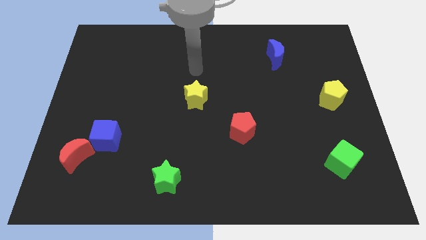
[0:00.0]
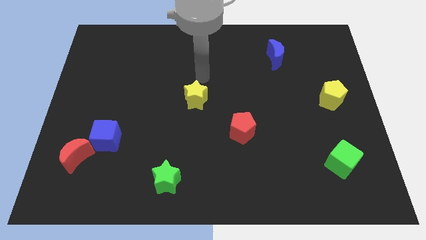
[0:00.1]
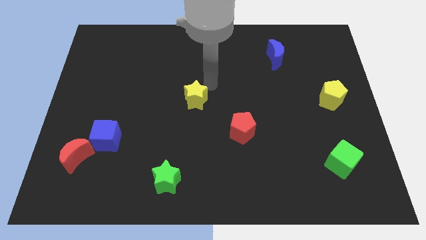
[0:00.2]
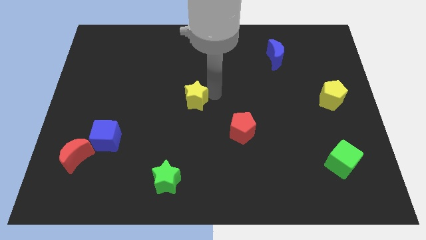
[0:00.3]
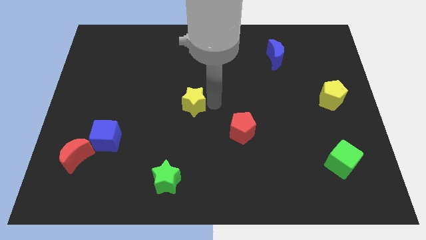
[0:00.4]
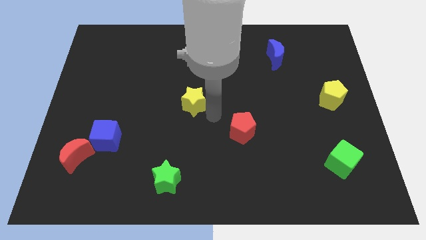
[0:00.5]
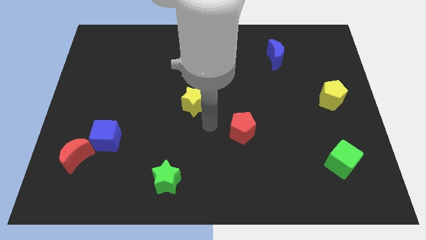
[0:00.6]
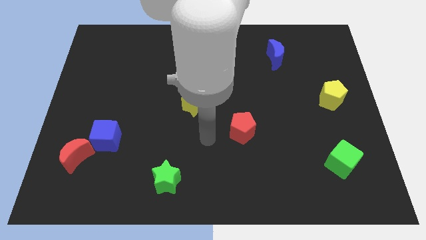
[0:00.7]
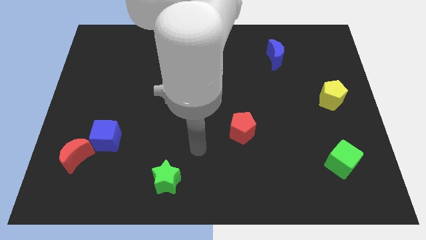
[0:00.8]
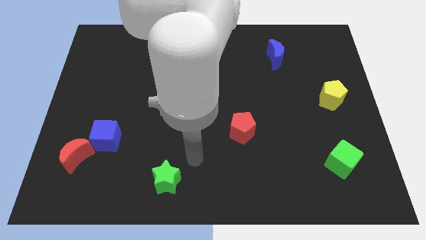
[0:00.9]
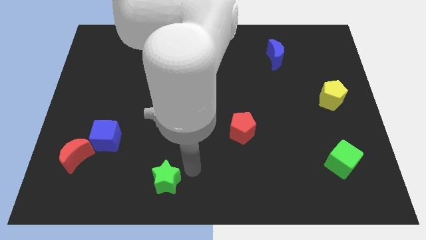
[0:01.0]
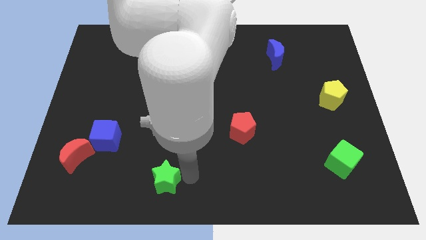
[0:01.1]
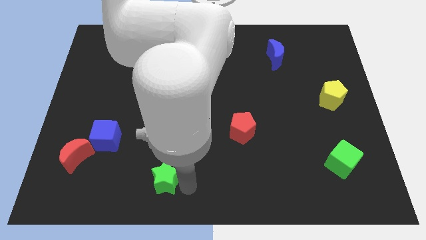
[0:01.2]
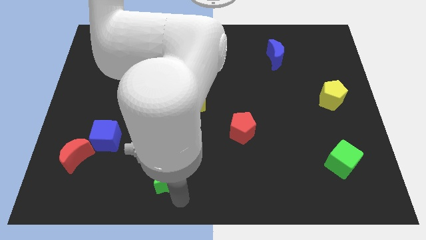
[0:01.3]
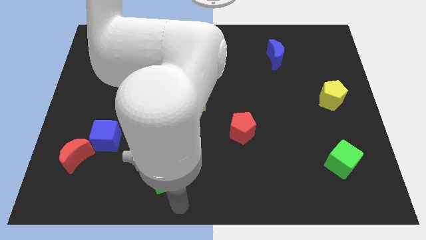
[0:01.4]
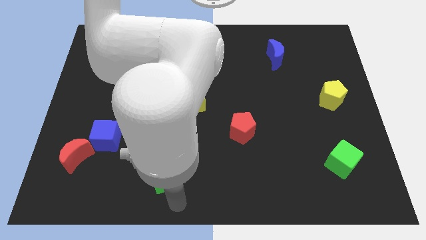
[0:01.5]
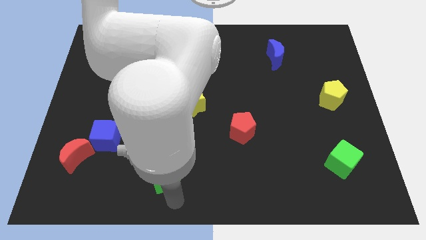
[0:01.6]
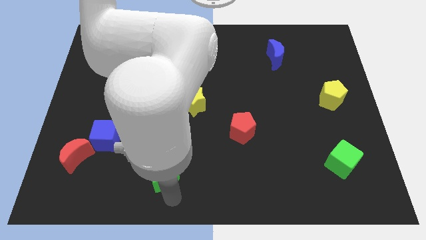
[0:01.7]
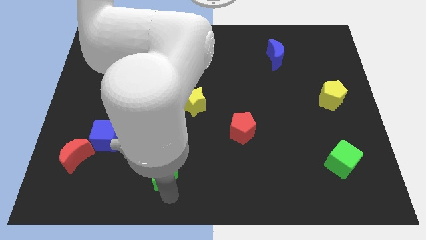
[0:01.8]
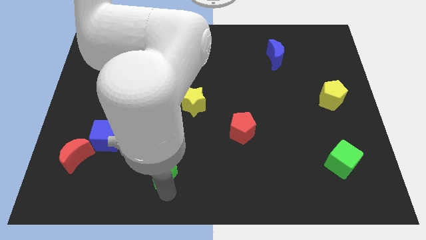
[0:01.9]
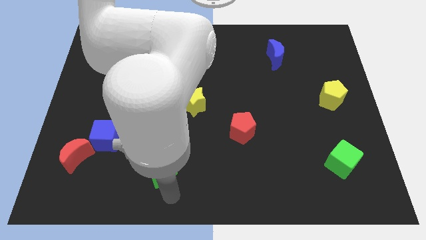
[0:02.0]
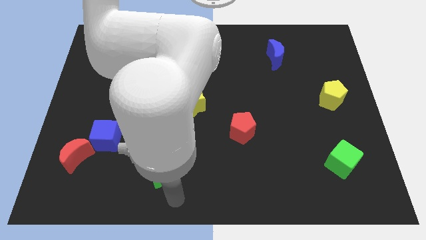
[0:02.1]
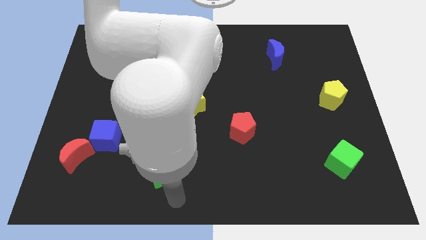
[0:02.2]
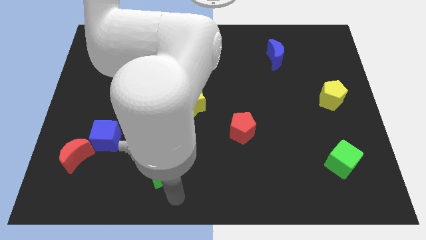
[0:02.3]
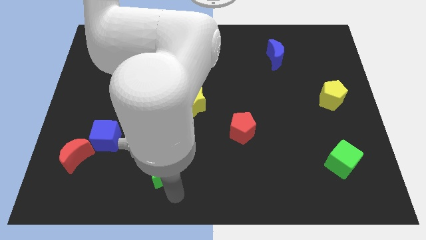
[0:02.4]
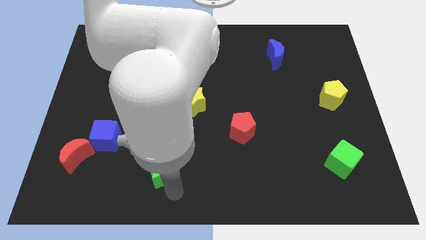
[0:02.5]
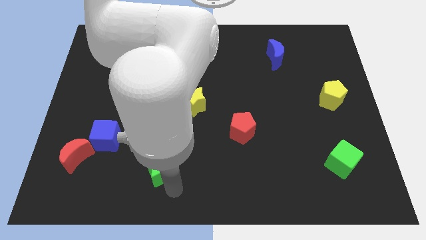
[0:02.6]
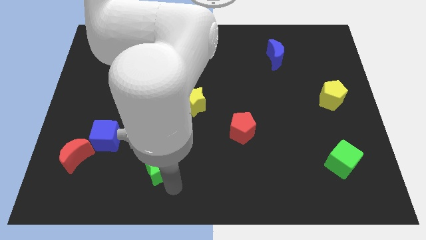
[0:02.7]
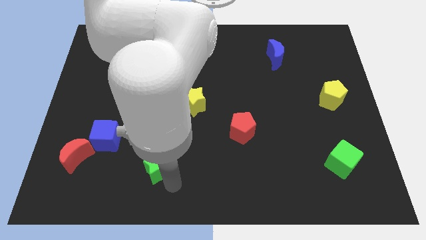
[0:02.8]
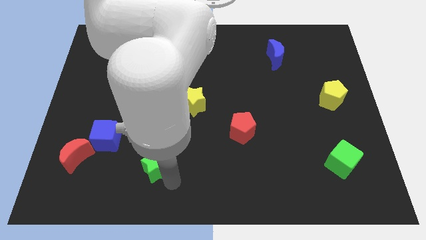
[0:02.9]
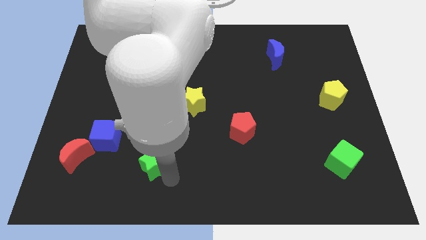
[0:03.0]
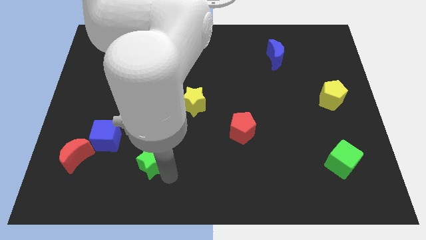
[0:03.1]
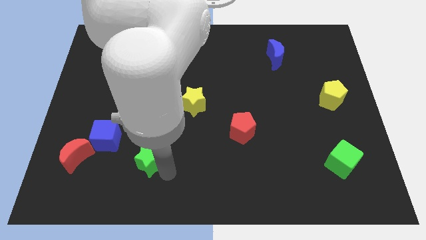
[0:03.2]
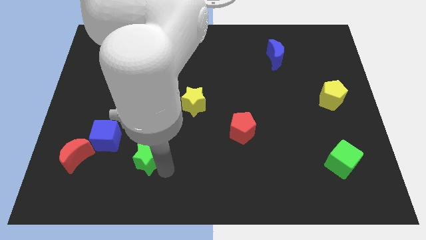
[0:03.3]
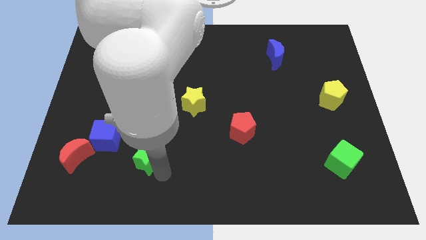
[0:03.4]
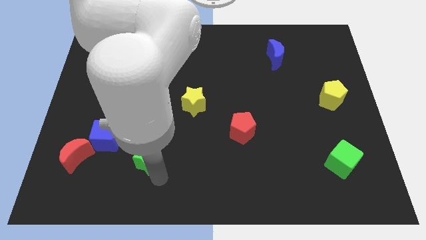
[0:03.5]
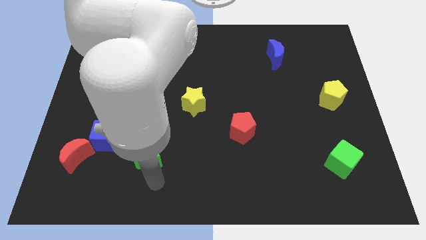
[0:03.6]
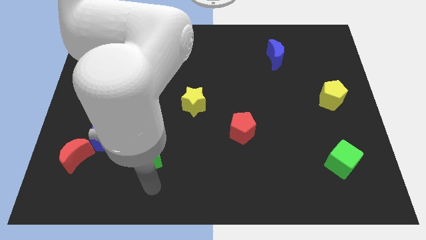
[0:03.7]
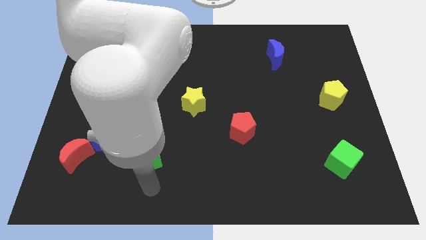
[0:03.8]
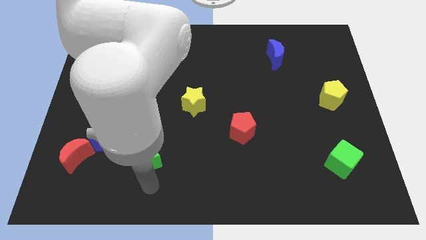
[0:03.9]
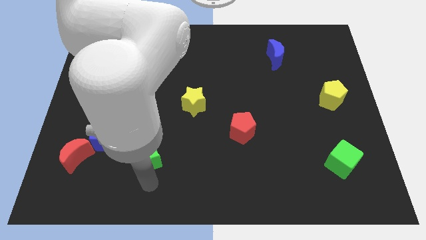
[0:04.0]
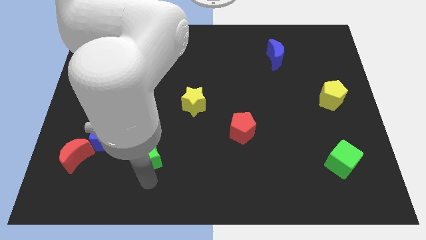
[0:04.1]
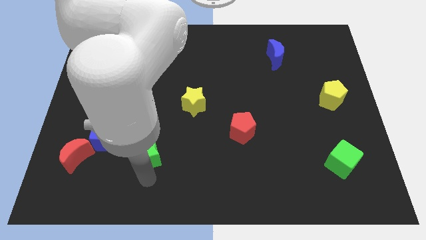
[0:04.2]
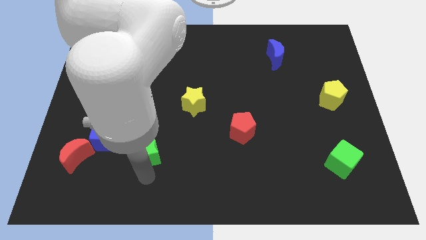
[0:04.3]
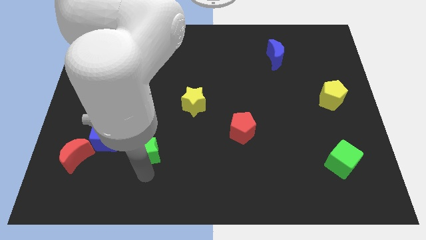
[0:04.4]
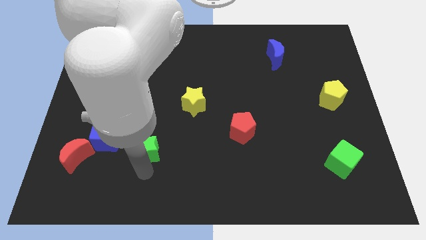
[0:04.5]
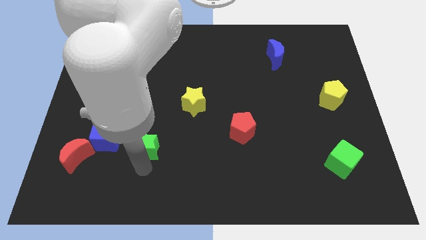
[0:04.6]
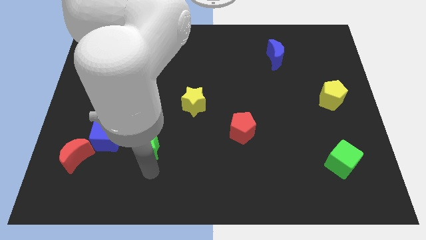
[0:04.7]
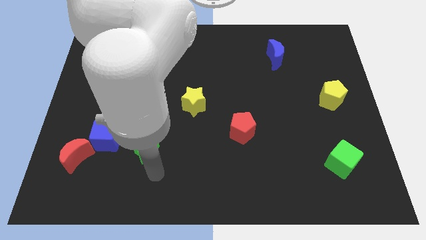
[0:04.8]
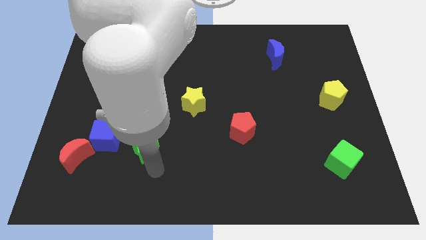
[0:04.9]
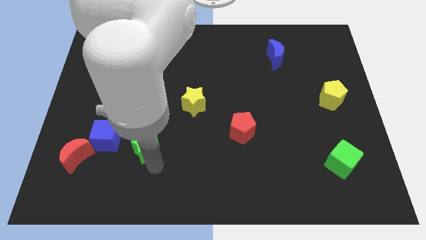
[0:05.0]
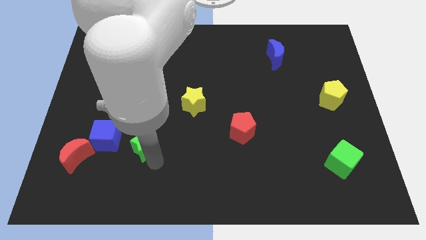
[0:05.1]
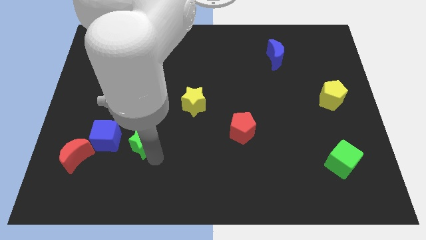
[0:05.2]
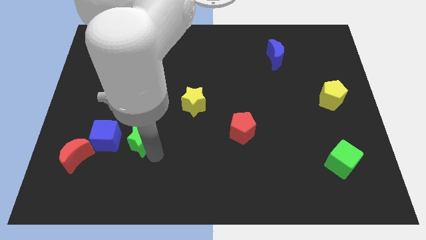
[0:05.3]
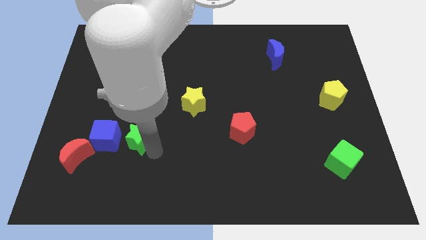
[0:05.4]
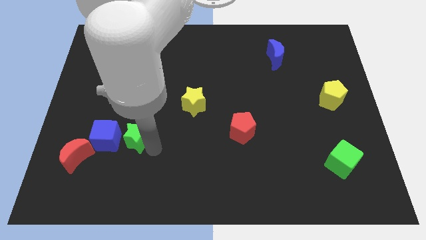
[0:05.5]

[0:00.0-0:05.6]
slide the green star diagonally up and to the right of the blue cube

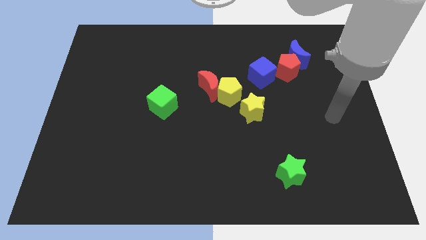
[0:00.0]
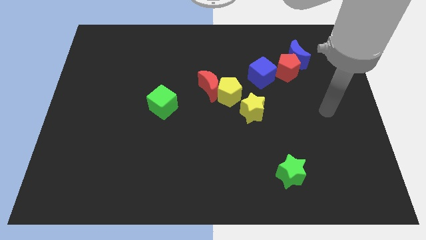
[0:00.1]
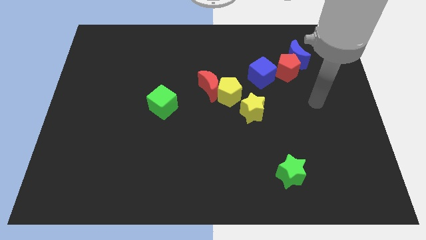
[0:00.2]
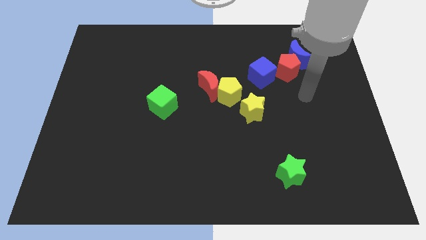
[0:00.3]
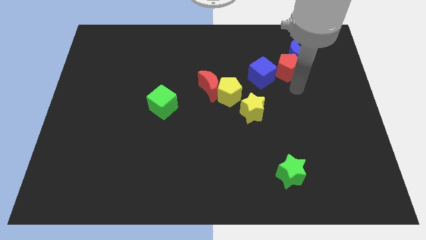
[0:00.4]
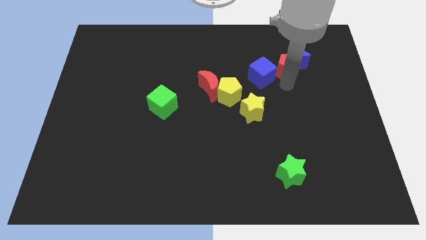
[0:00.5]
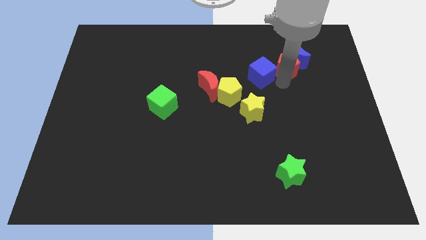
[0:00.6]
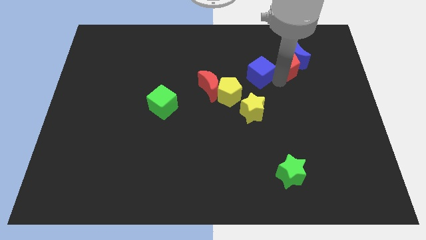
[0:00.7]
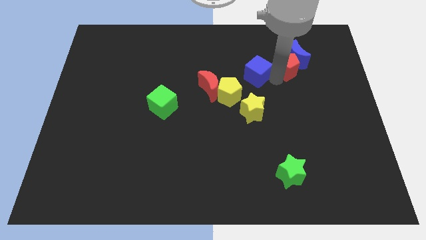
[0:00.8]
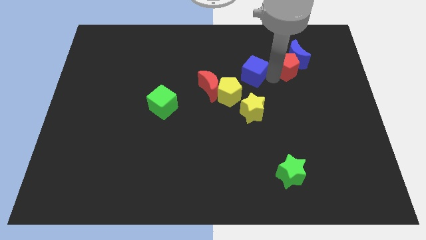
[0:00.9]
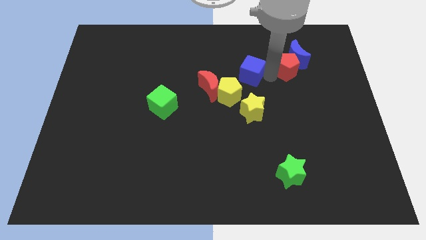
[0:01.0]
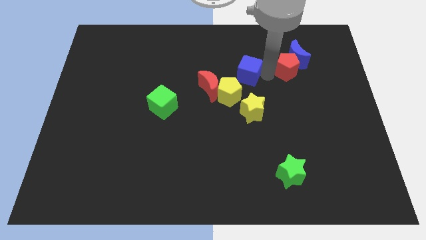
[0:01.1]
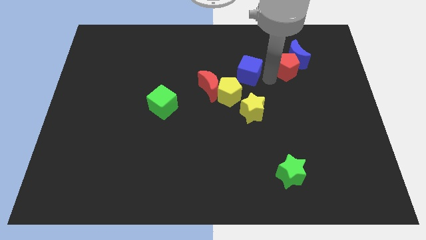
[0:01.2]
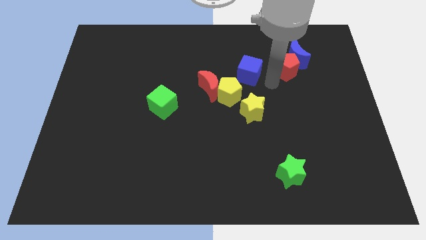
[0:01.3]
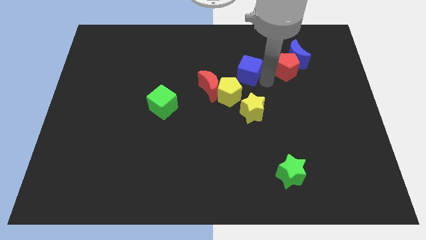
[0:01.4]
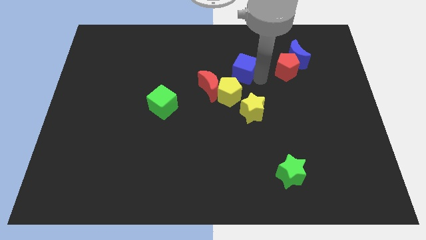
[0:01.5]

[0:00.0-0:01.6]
move the blue cube to the top side of the yellow pentagon

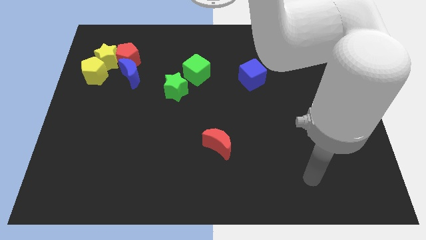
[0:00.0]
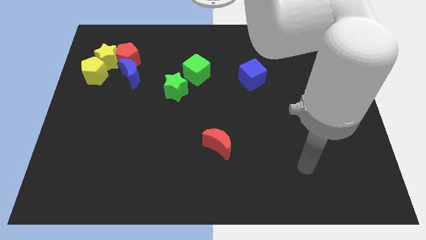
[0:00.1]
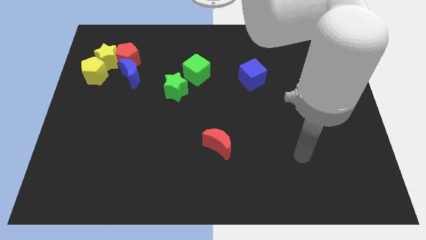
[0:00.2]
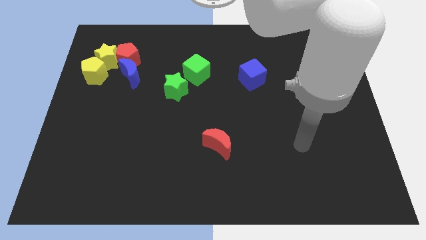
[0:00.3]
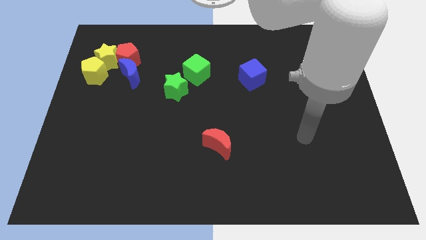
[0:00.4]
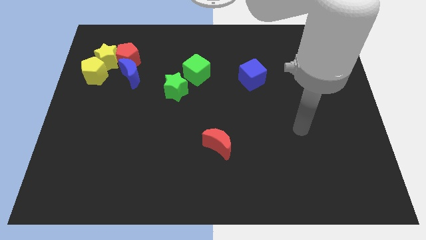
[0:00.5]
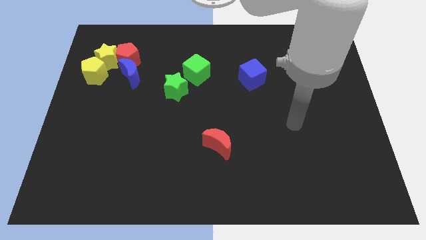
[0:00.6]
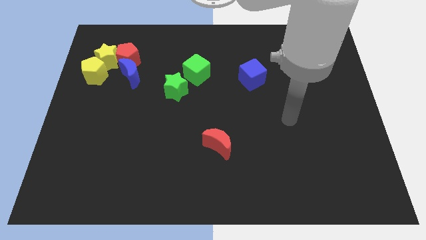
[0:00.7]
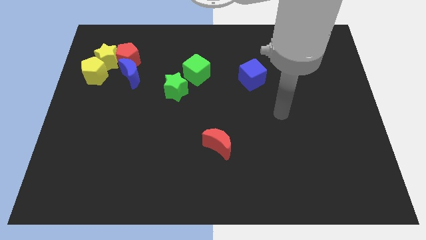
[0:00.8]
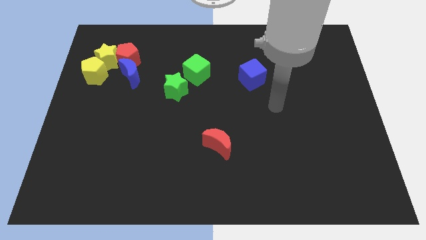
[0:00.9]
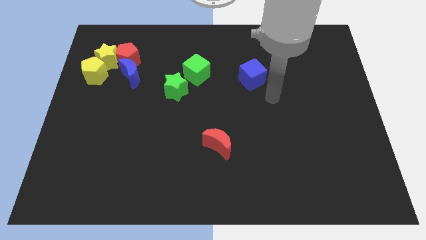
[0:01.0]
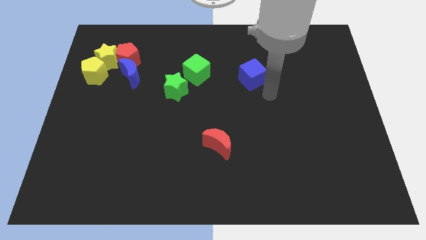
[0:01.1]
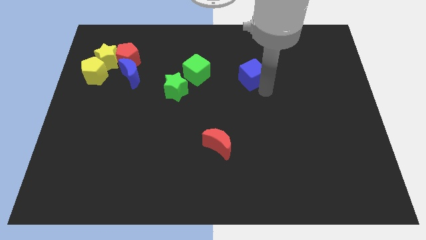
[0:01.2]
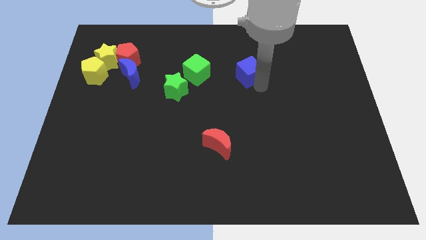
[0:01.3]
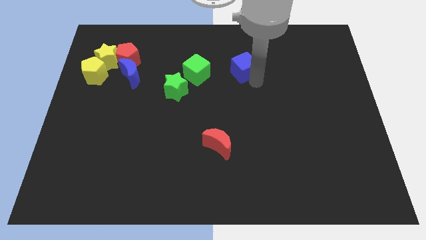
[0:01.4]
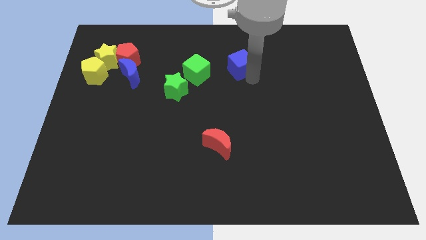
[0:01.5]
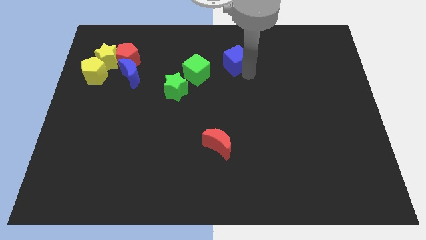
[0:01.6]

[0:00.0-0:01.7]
move the blue cube diagonally up and to the right of the green cube
